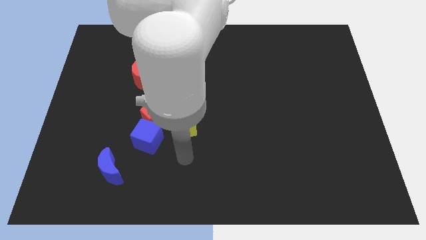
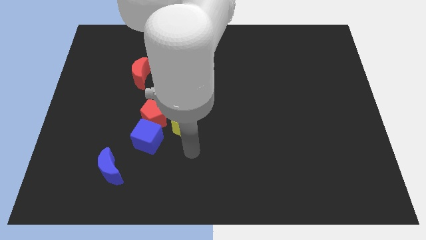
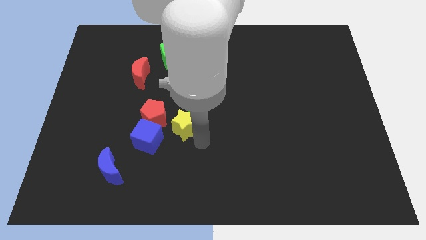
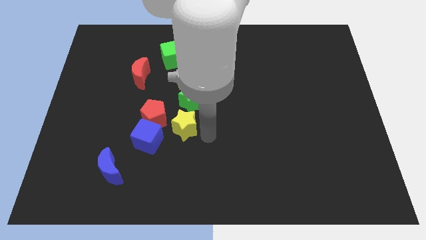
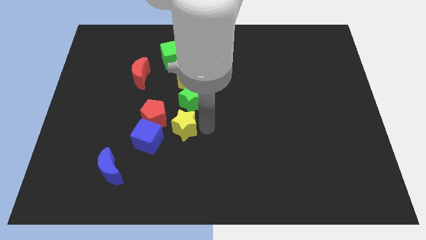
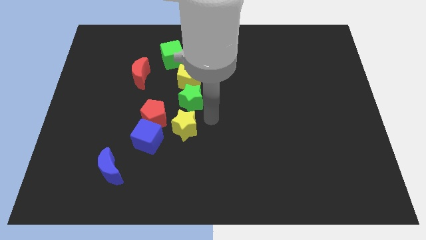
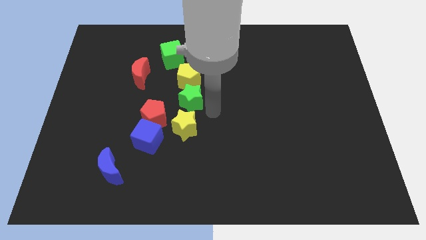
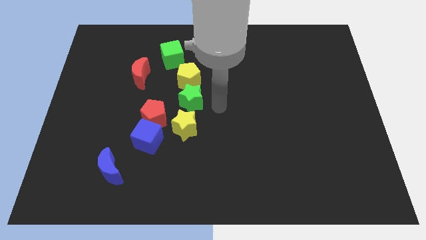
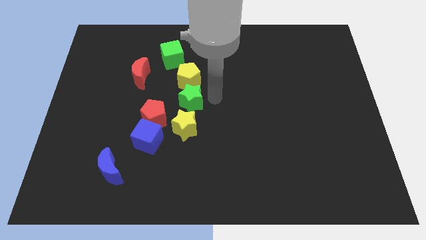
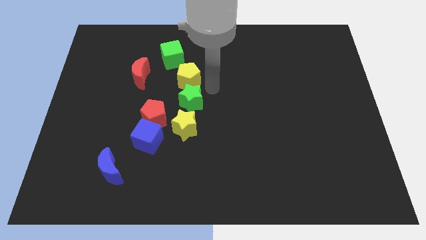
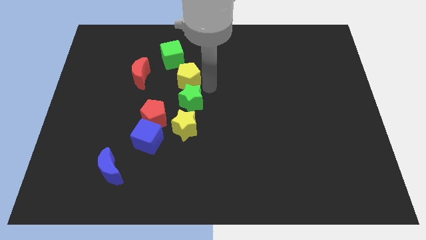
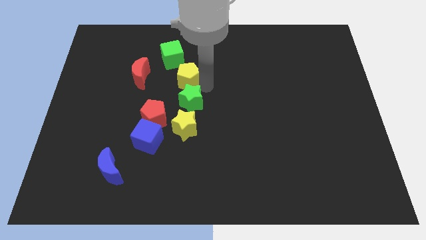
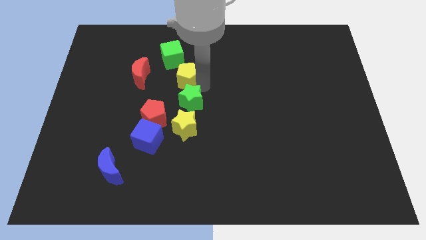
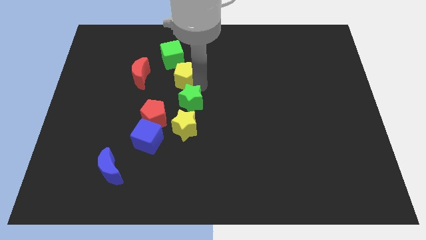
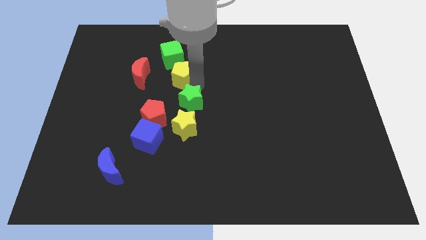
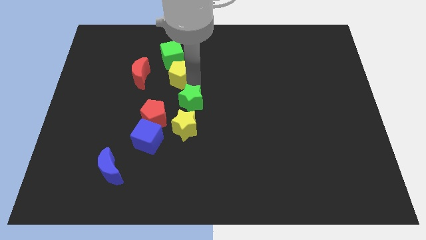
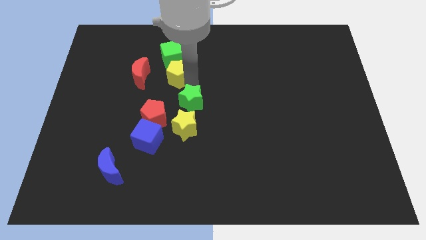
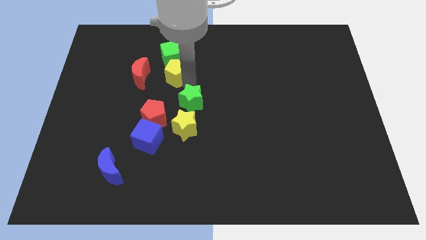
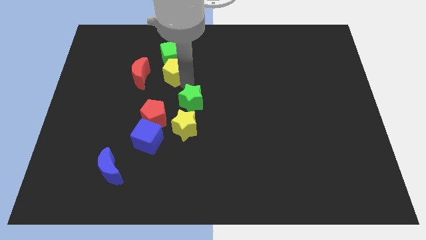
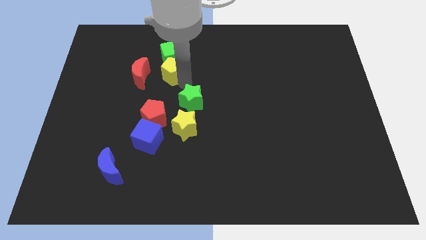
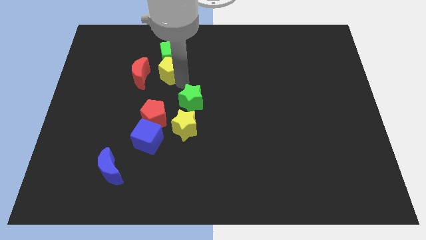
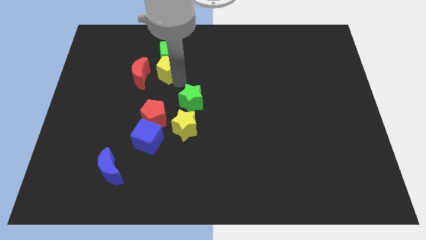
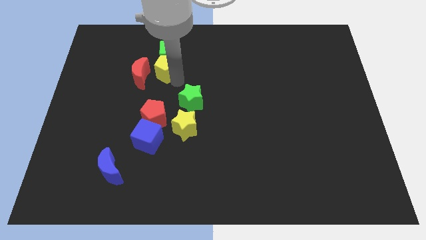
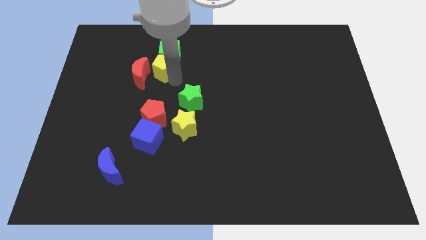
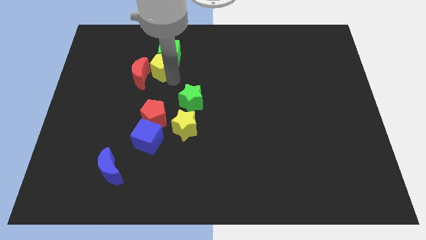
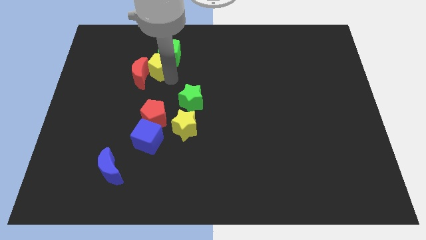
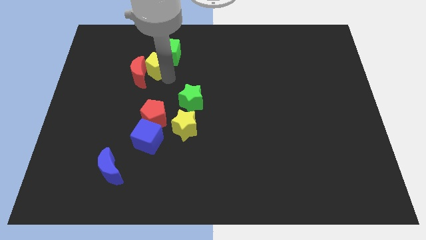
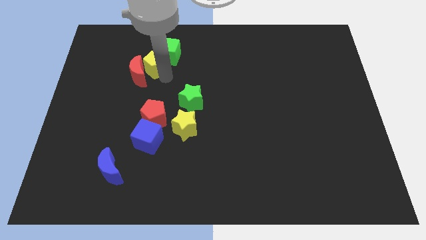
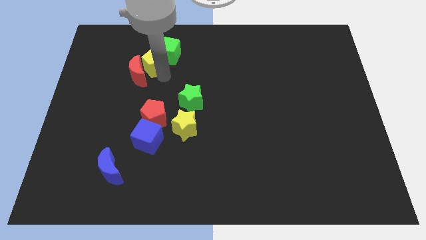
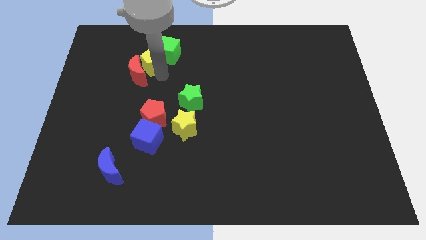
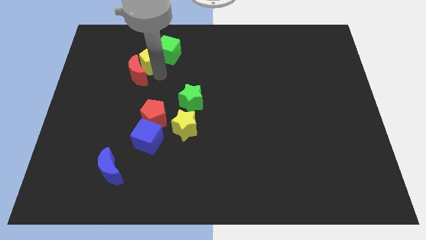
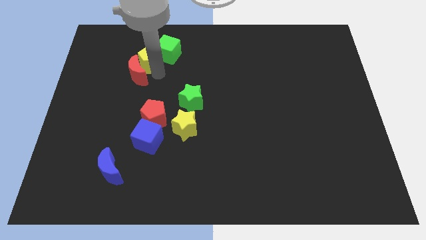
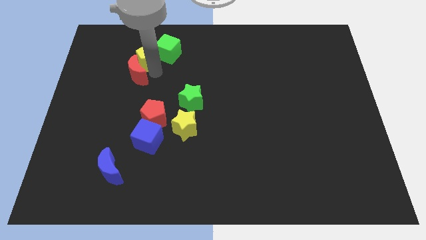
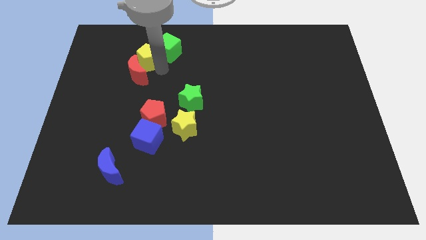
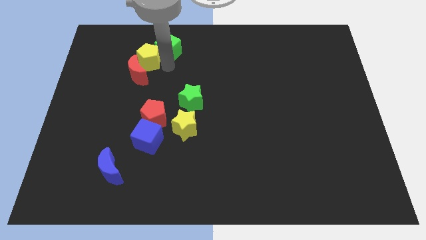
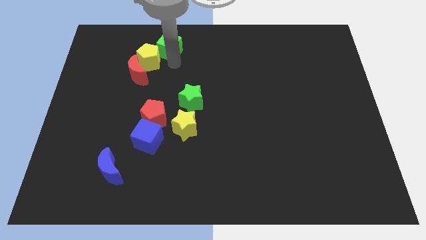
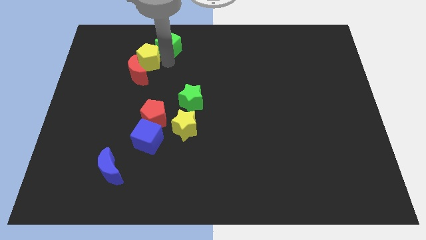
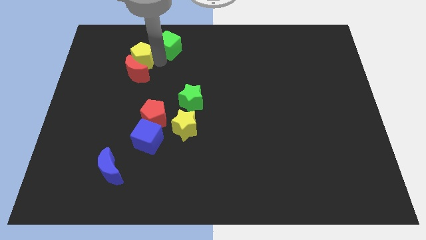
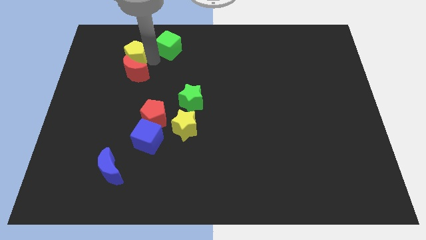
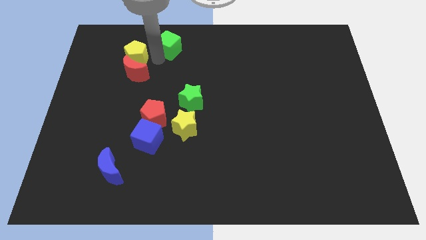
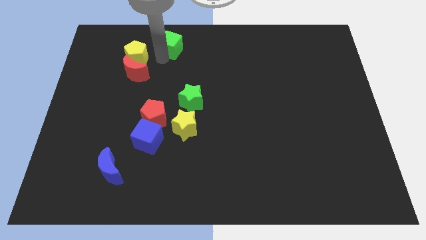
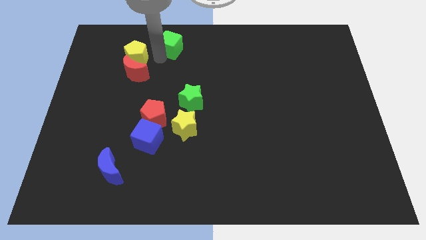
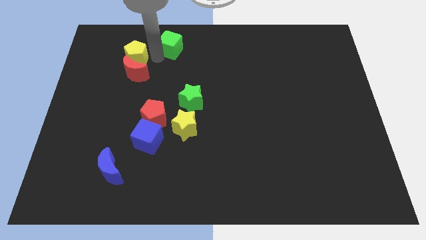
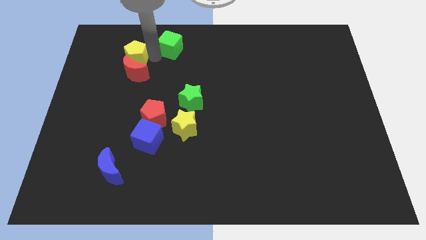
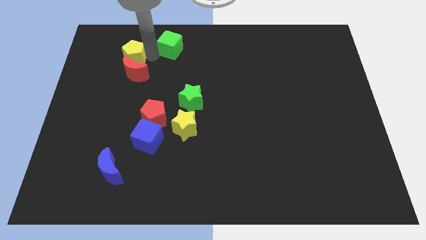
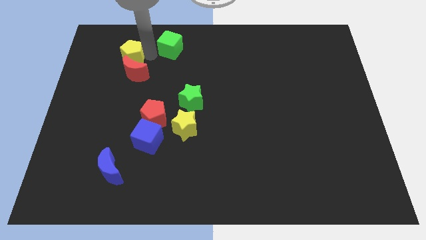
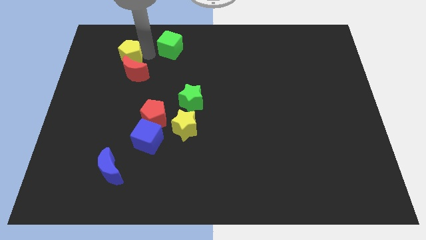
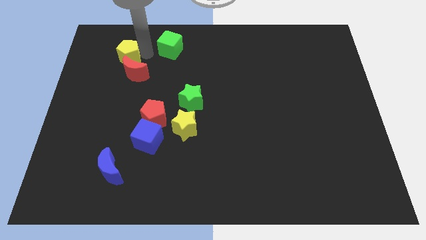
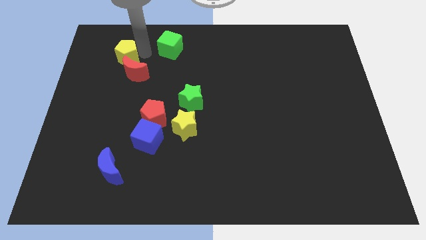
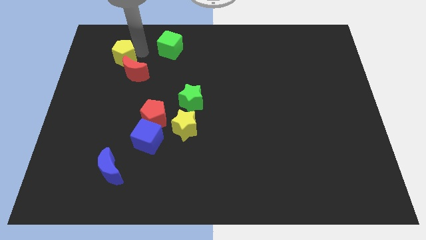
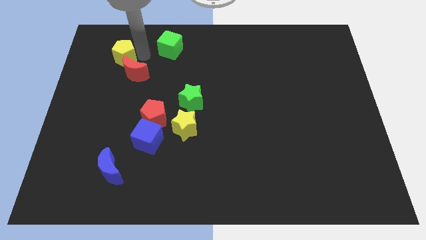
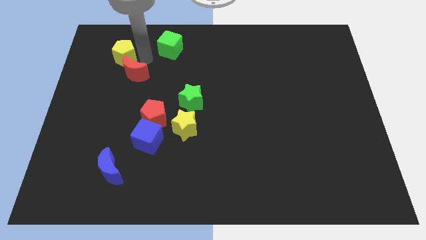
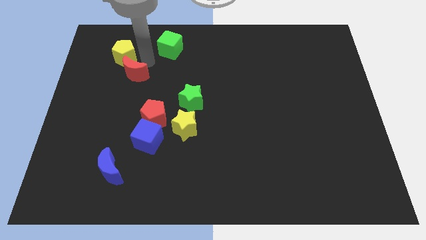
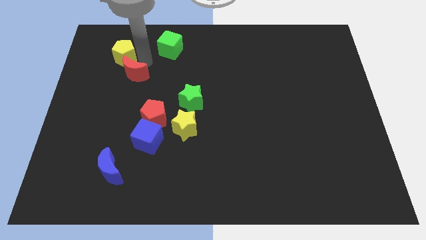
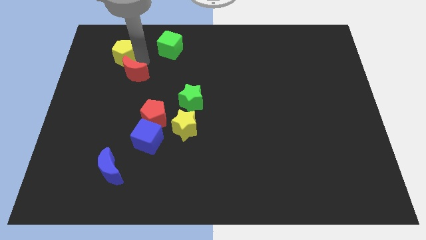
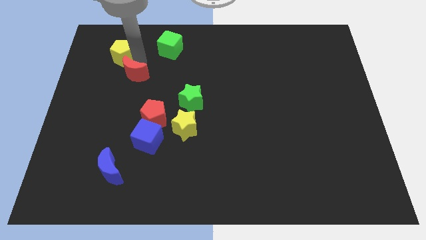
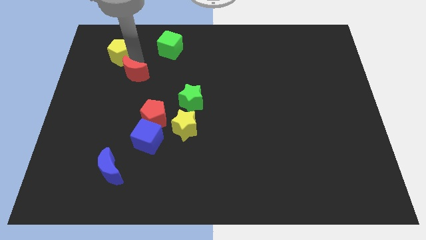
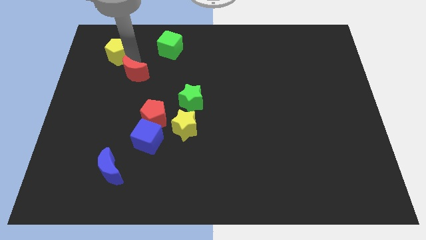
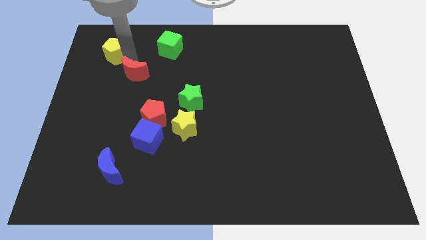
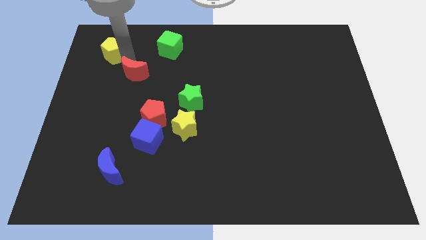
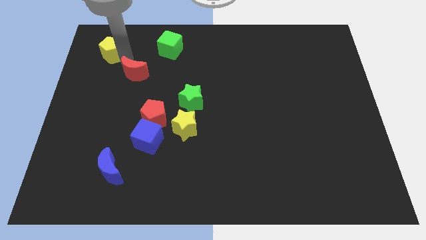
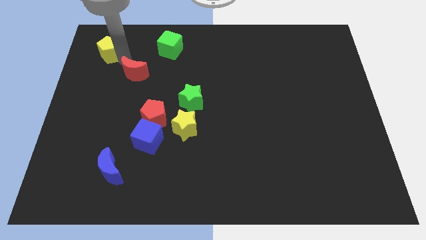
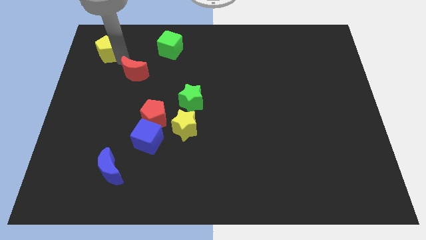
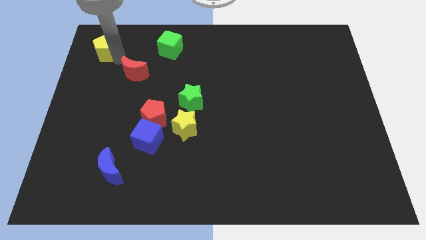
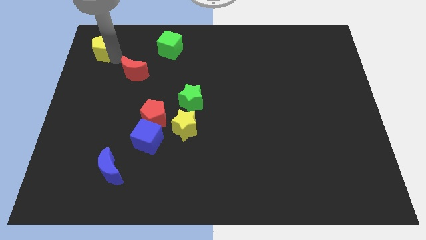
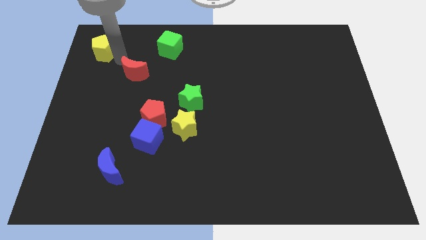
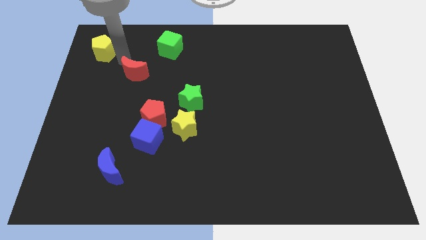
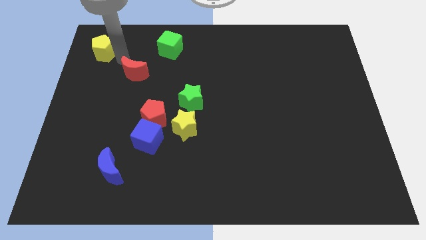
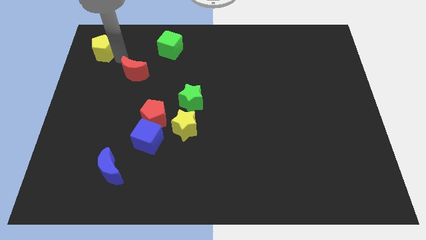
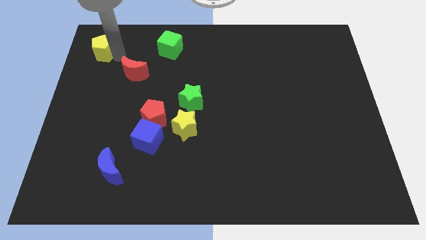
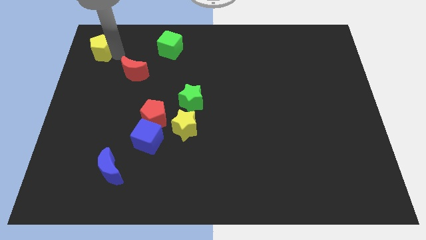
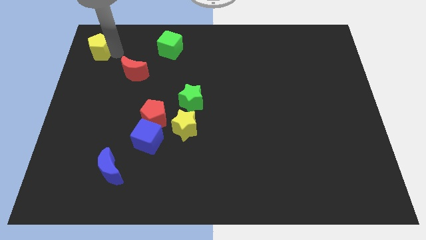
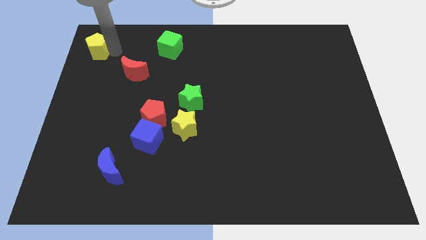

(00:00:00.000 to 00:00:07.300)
slide the yellow pentagon to the top left corner

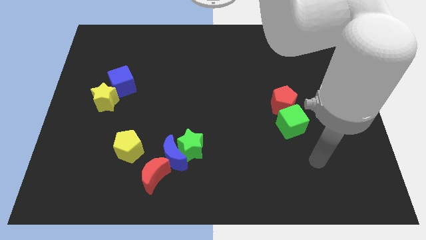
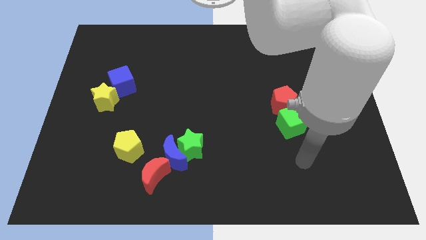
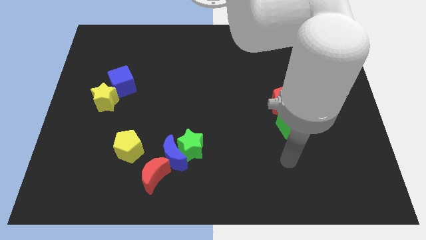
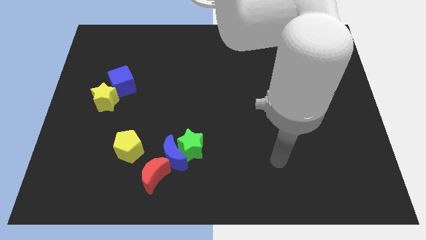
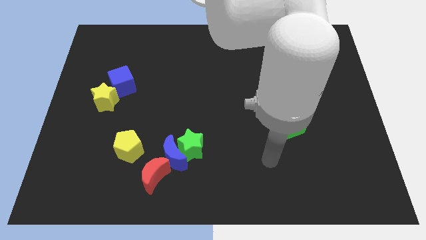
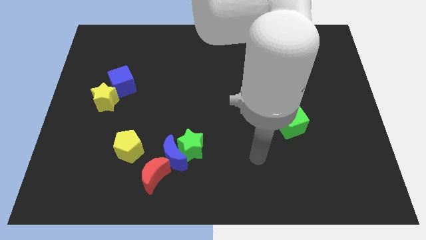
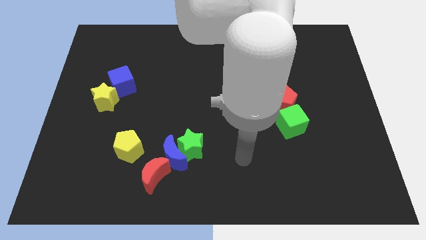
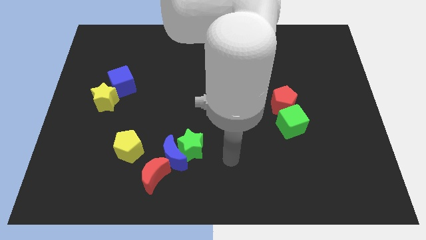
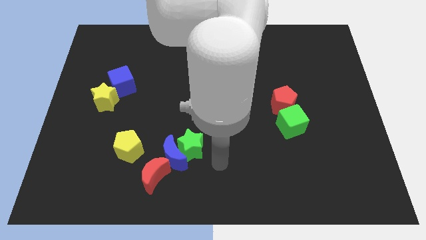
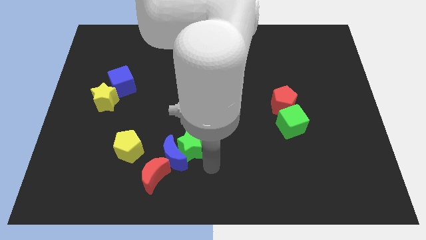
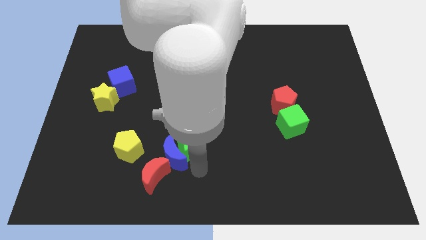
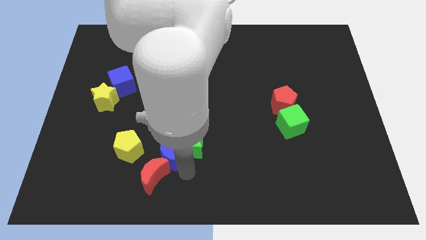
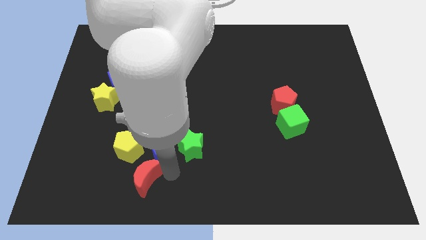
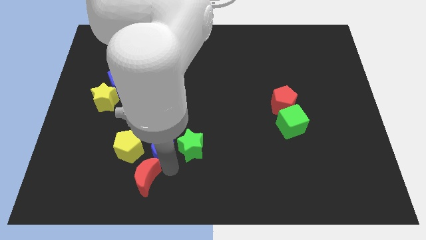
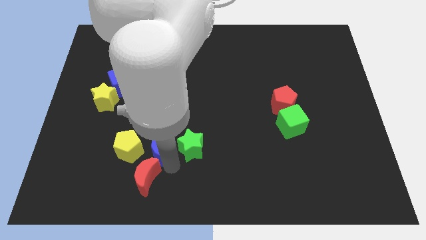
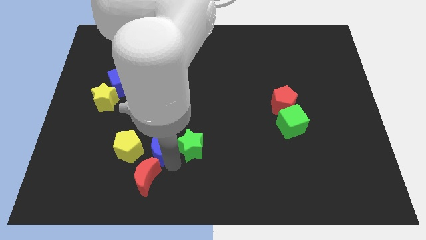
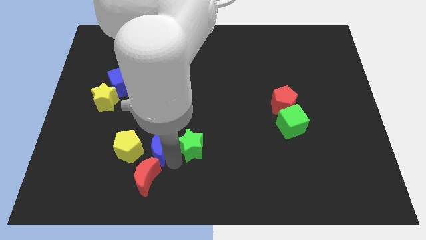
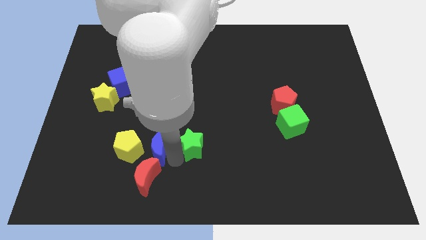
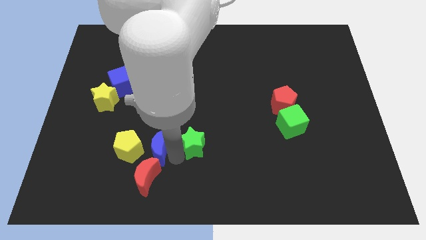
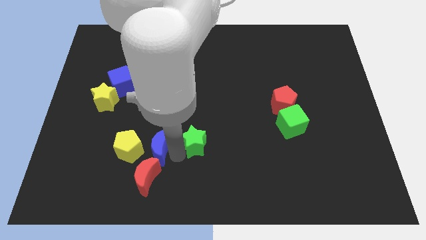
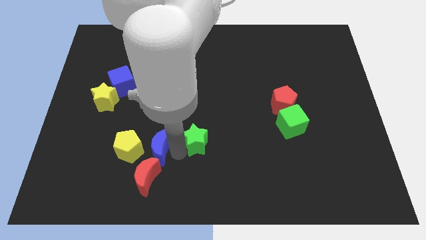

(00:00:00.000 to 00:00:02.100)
slide the green star to the middle of the board
